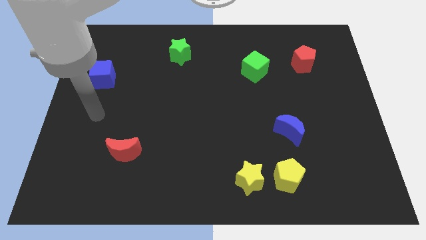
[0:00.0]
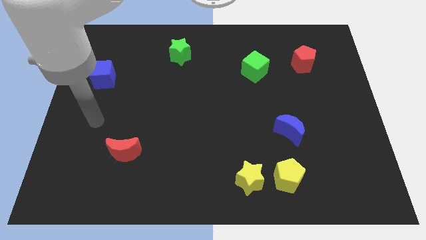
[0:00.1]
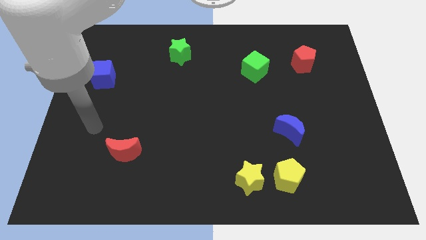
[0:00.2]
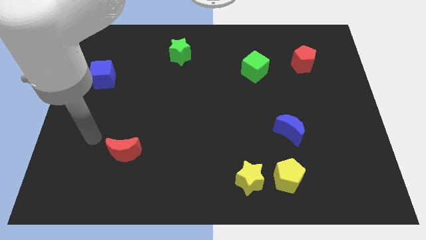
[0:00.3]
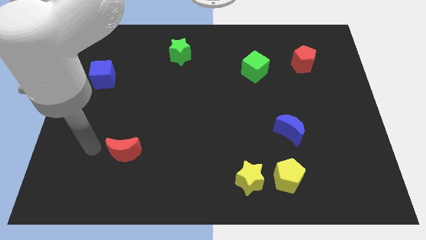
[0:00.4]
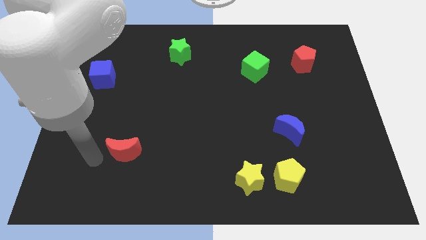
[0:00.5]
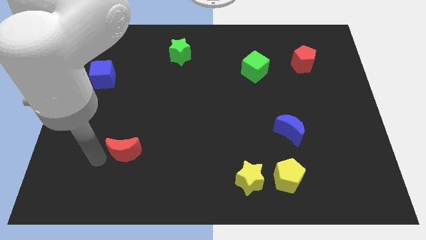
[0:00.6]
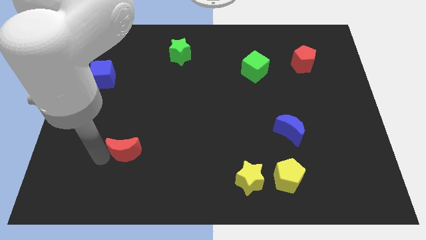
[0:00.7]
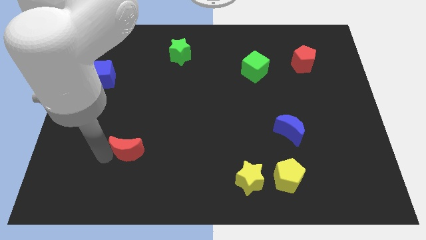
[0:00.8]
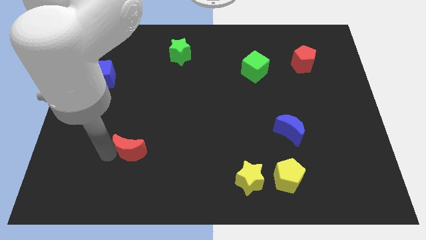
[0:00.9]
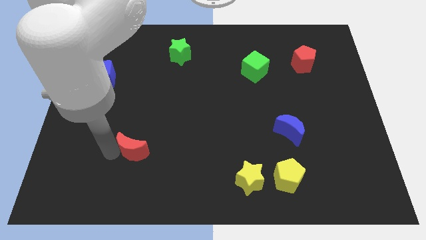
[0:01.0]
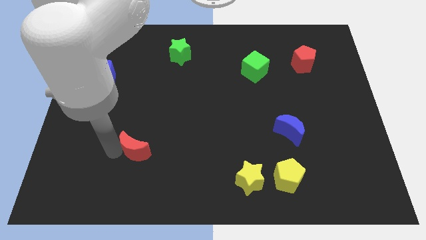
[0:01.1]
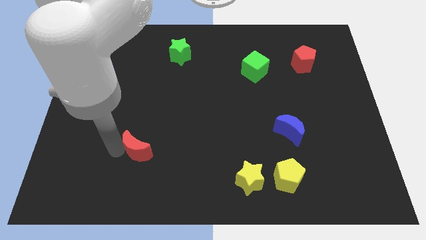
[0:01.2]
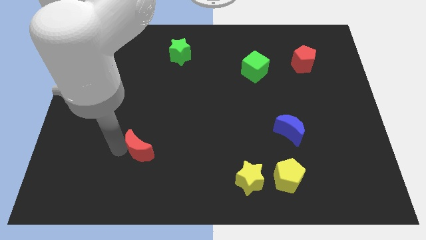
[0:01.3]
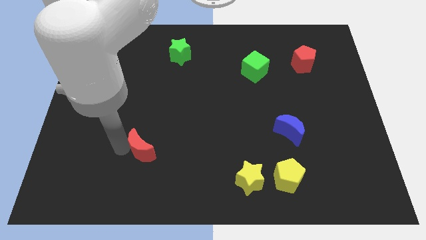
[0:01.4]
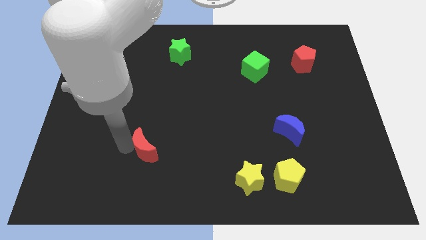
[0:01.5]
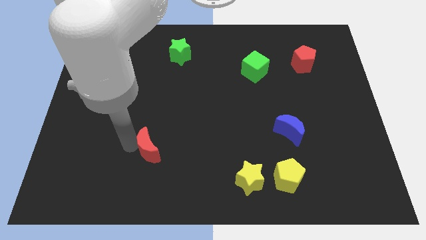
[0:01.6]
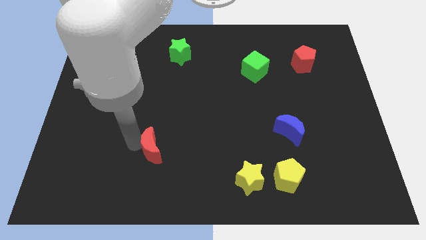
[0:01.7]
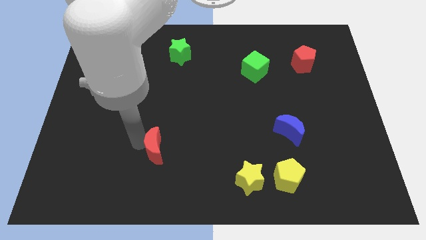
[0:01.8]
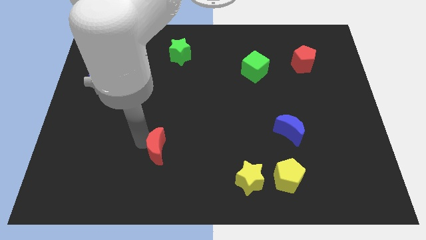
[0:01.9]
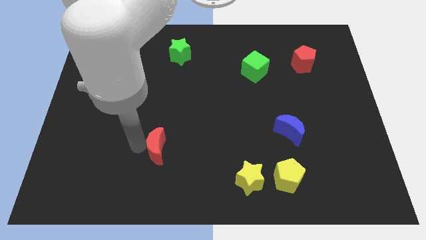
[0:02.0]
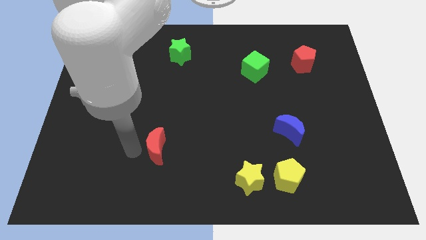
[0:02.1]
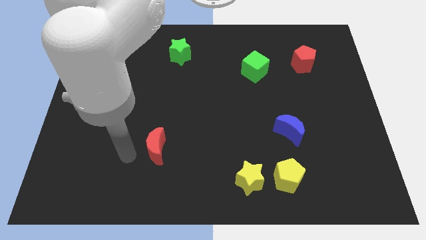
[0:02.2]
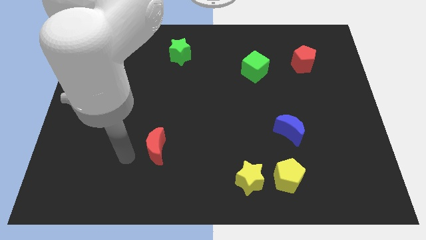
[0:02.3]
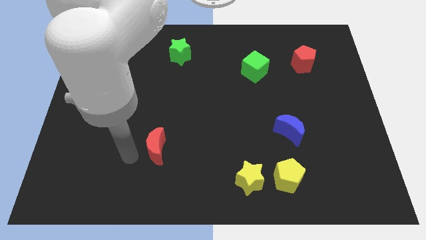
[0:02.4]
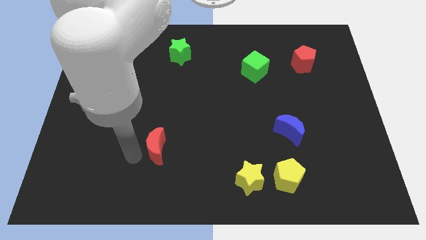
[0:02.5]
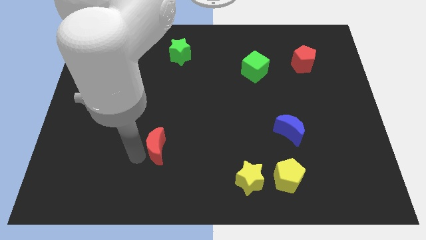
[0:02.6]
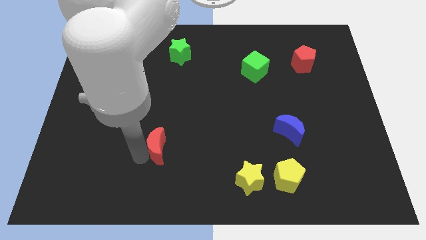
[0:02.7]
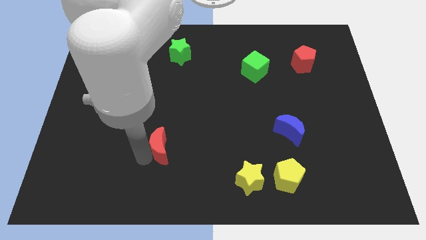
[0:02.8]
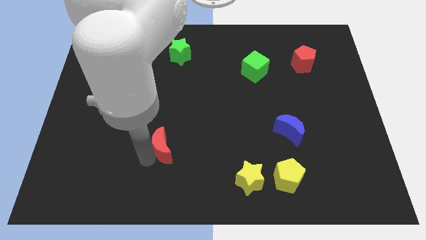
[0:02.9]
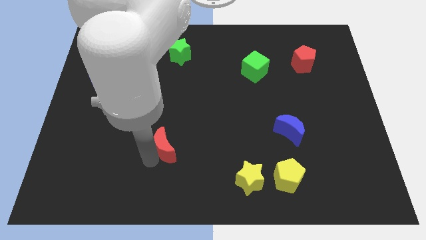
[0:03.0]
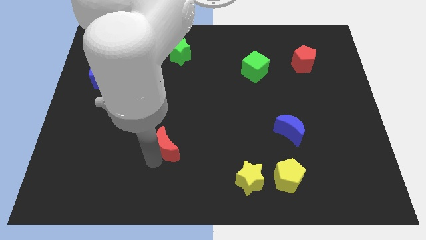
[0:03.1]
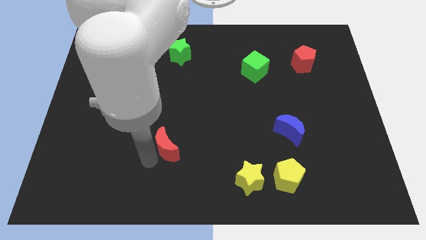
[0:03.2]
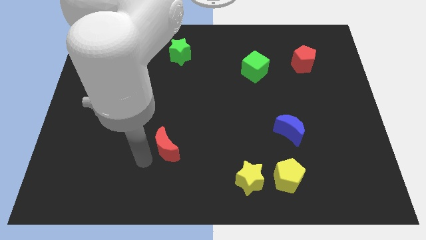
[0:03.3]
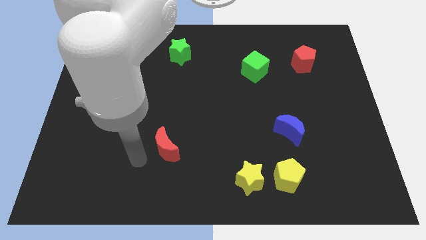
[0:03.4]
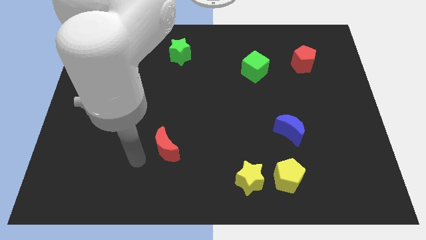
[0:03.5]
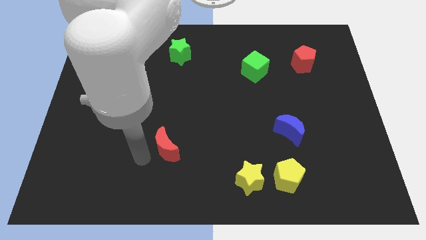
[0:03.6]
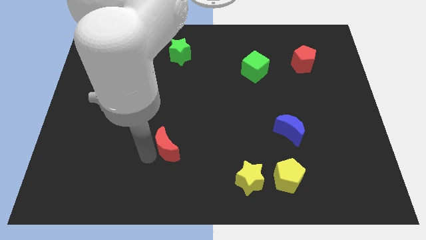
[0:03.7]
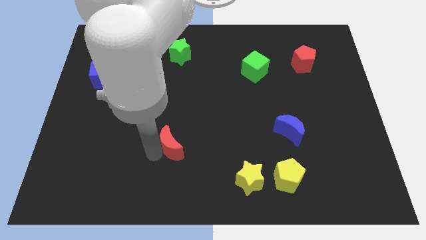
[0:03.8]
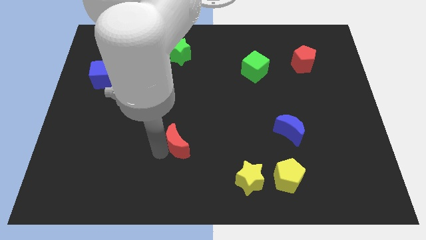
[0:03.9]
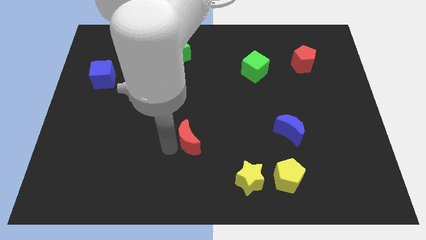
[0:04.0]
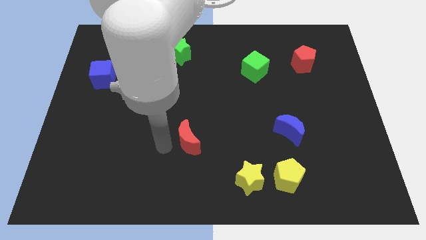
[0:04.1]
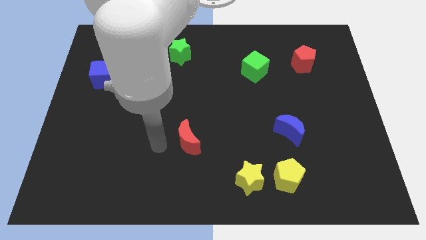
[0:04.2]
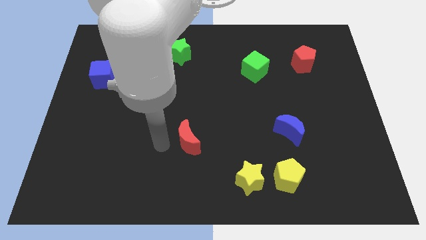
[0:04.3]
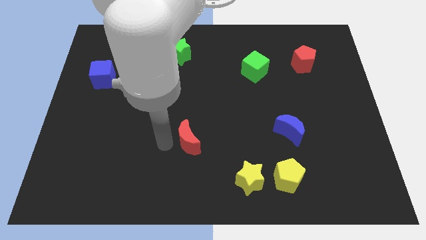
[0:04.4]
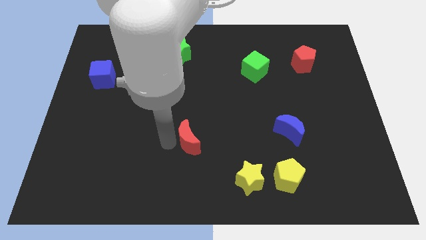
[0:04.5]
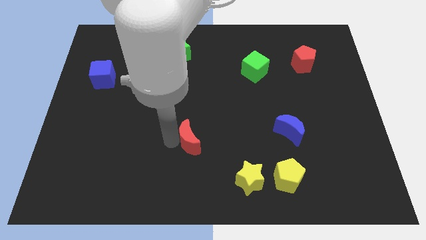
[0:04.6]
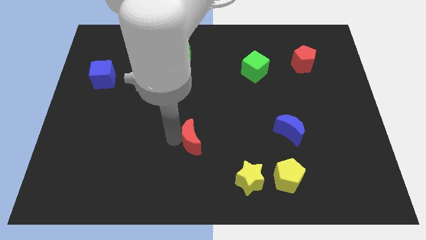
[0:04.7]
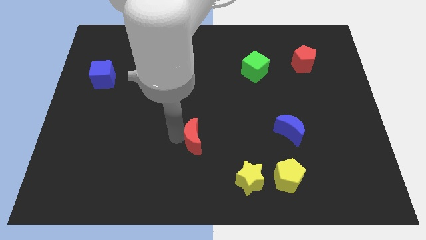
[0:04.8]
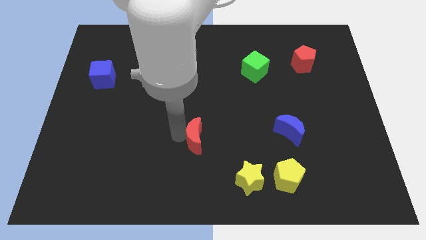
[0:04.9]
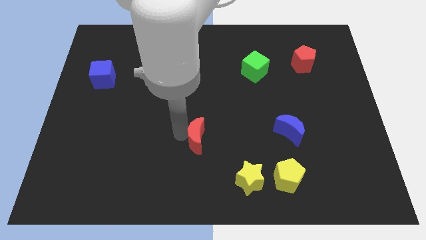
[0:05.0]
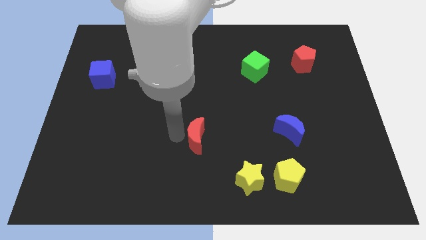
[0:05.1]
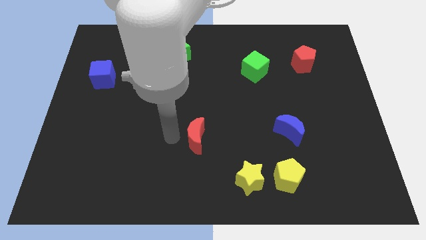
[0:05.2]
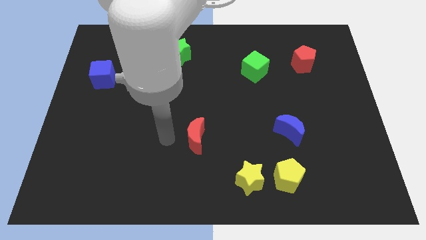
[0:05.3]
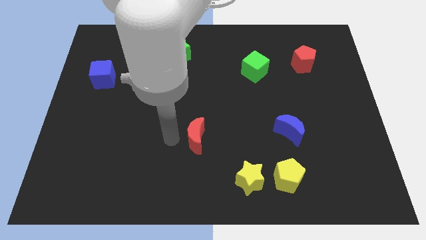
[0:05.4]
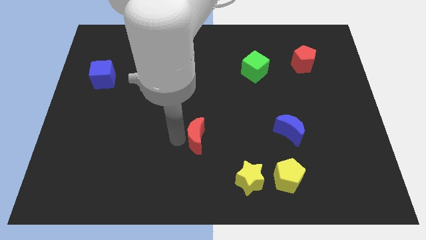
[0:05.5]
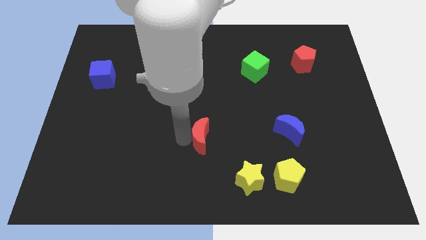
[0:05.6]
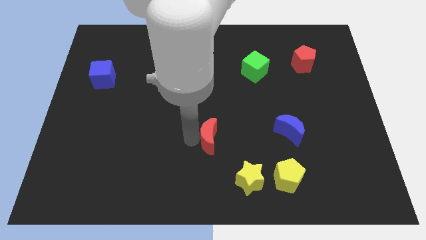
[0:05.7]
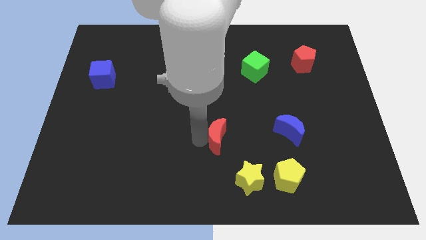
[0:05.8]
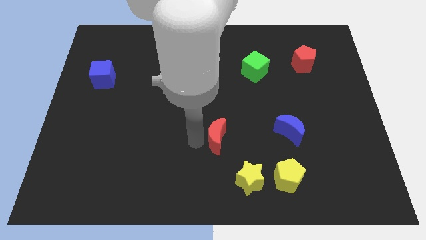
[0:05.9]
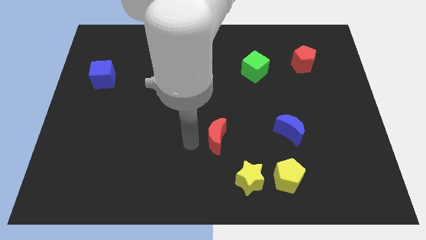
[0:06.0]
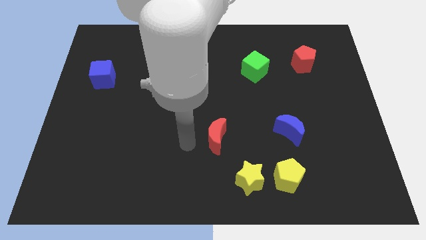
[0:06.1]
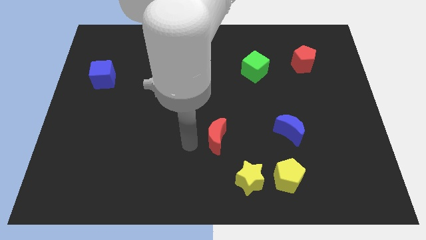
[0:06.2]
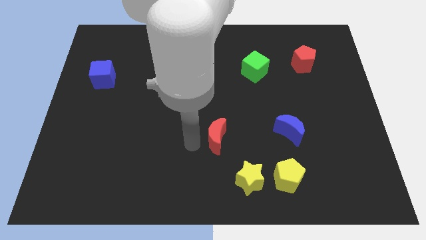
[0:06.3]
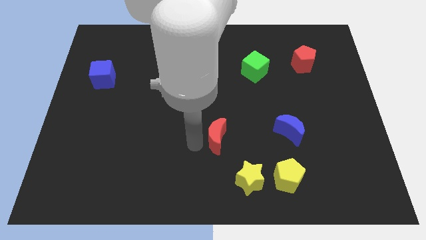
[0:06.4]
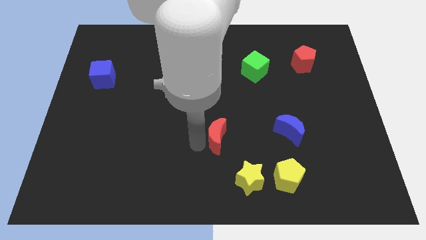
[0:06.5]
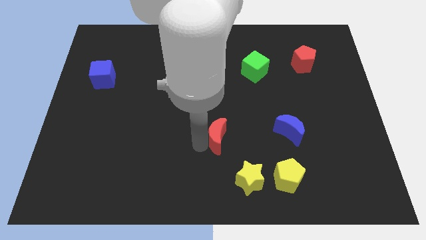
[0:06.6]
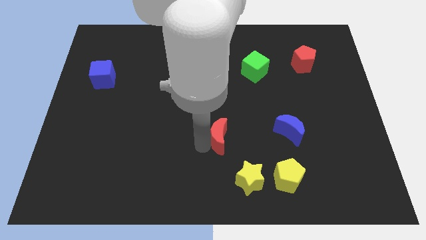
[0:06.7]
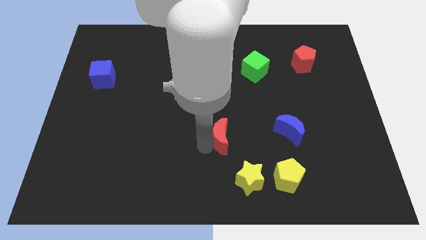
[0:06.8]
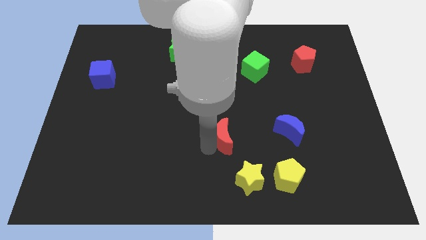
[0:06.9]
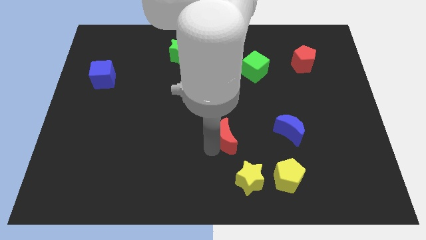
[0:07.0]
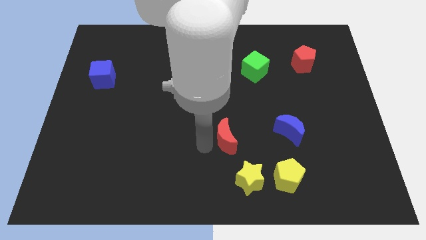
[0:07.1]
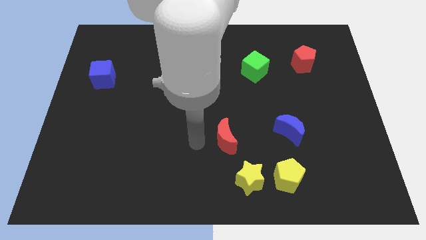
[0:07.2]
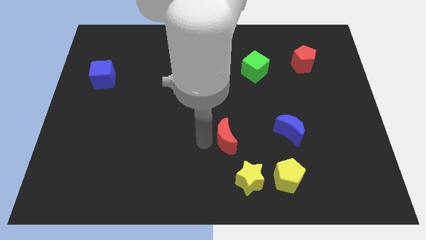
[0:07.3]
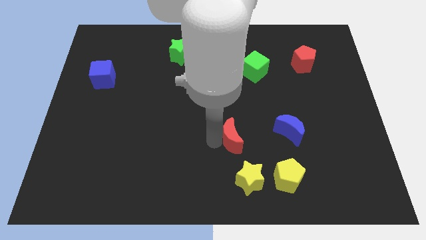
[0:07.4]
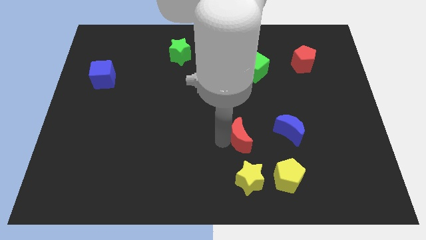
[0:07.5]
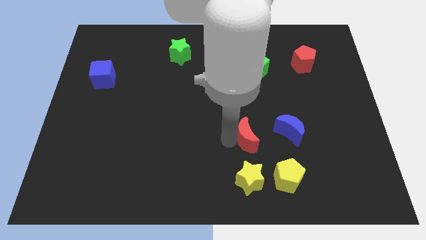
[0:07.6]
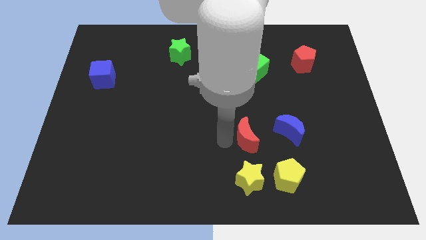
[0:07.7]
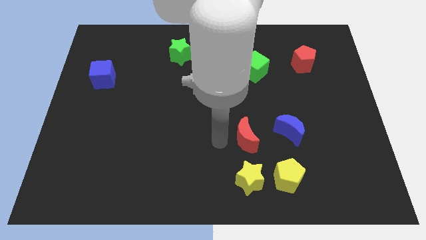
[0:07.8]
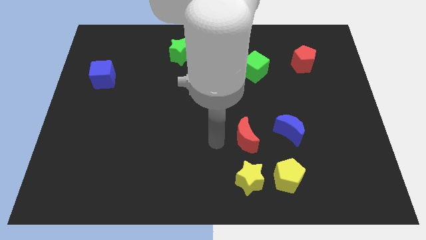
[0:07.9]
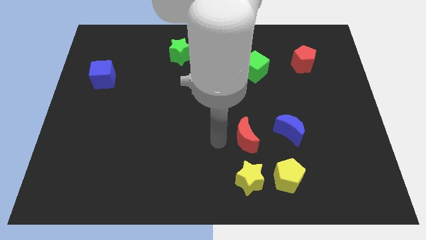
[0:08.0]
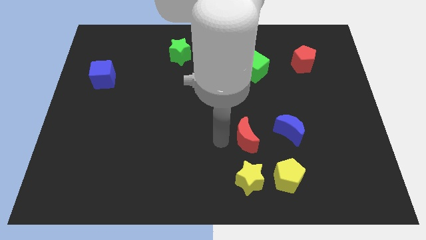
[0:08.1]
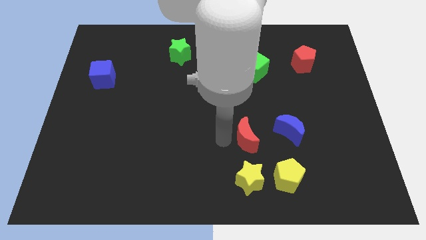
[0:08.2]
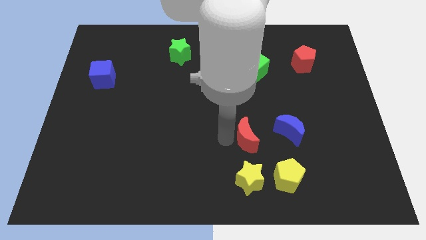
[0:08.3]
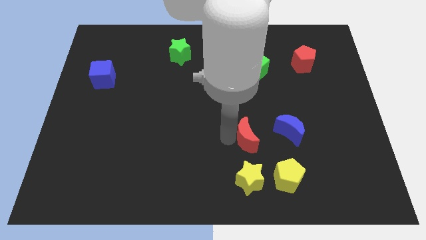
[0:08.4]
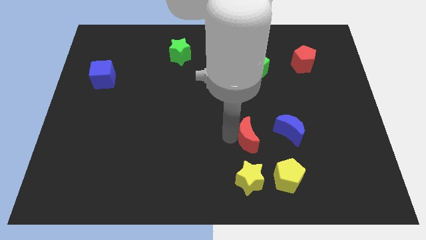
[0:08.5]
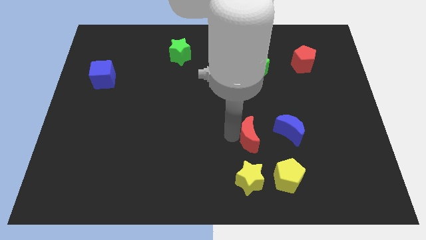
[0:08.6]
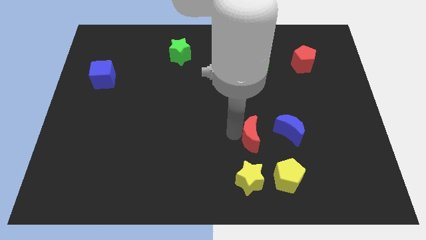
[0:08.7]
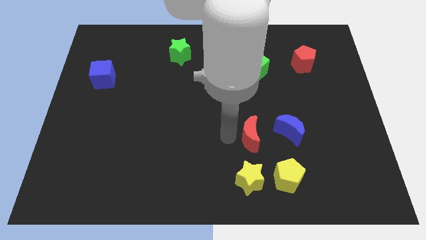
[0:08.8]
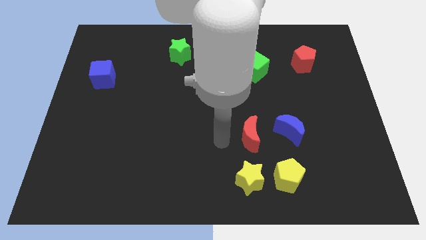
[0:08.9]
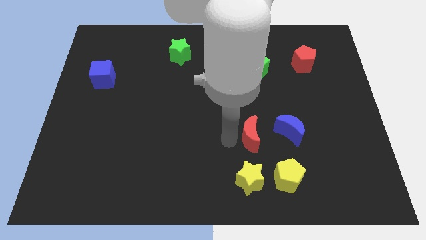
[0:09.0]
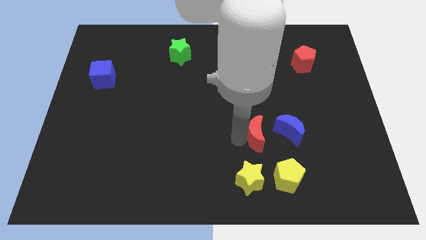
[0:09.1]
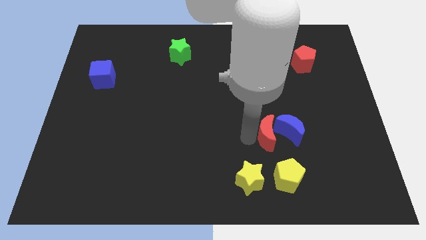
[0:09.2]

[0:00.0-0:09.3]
push the red moon to the blue moon
